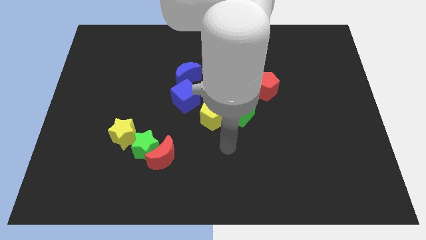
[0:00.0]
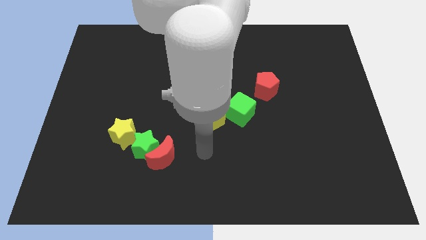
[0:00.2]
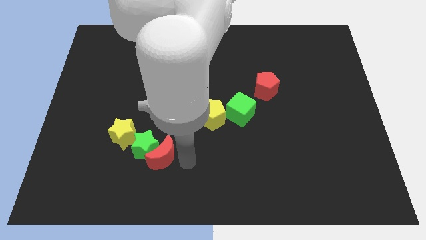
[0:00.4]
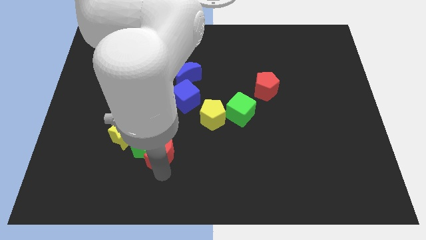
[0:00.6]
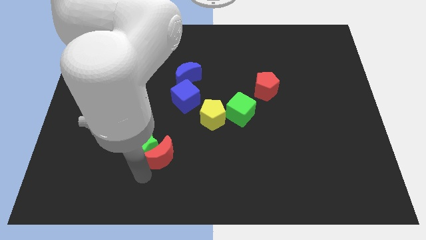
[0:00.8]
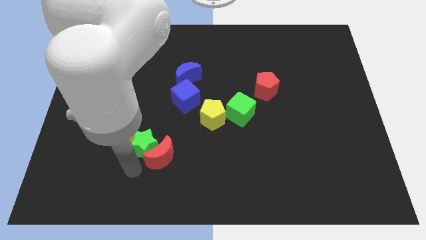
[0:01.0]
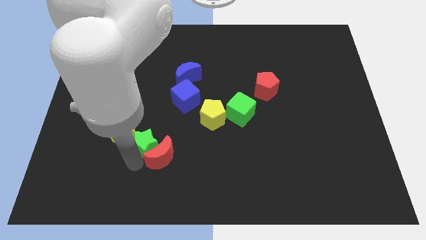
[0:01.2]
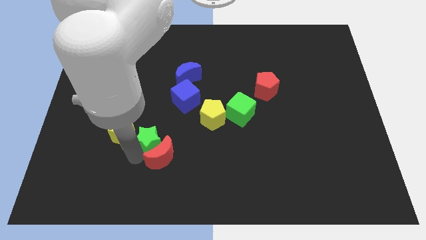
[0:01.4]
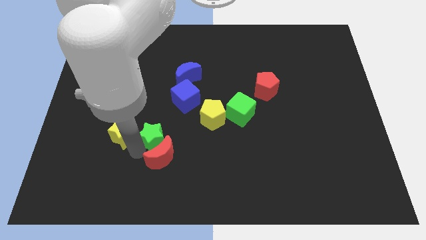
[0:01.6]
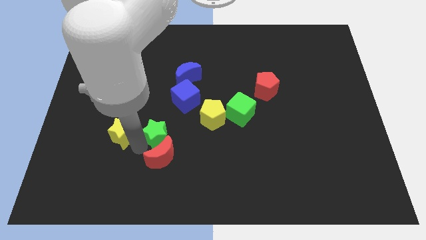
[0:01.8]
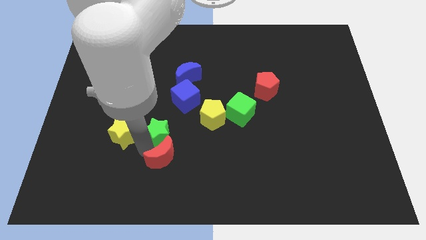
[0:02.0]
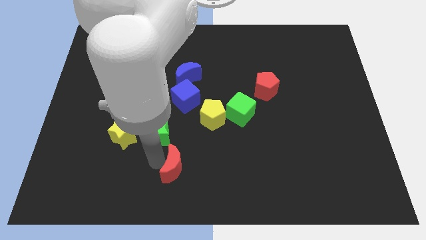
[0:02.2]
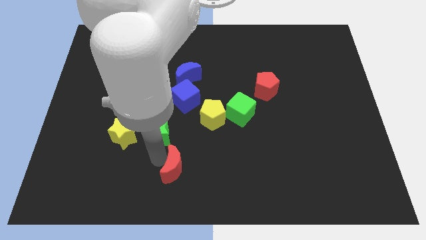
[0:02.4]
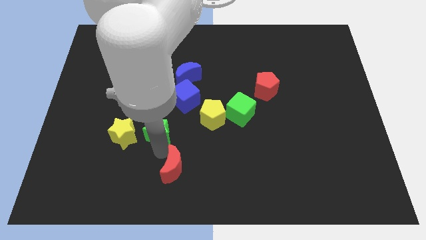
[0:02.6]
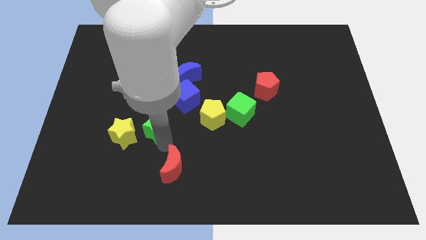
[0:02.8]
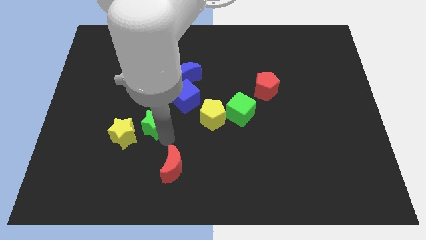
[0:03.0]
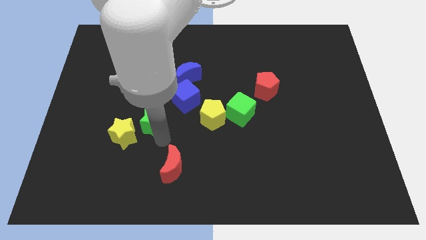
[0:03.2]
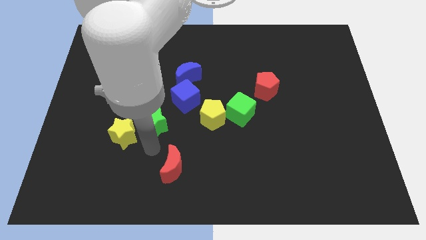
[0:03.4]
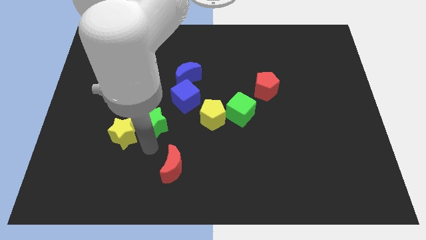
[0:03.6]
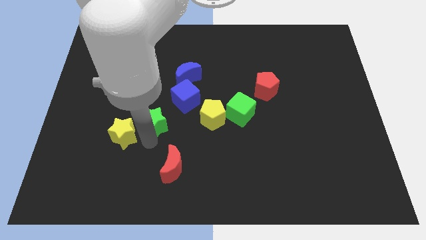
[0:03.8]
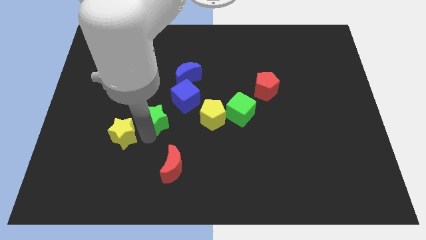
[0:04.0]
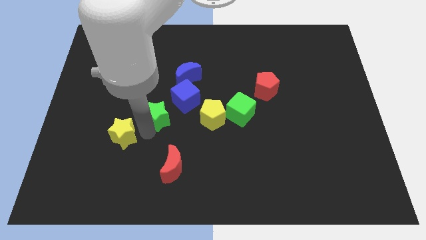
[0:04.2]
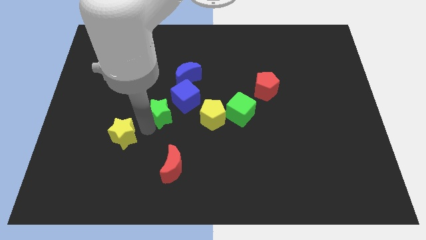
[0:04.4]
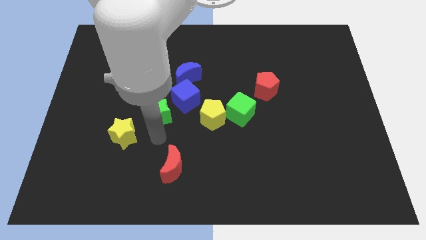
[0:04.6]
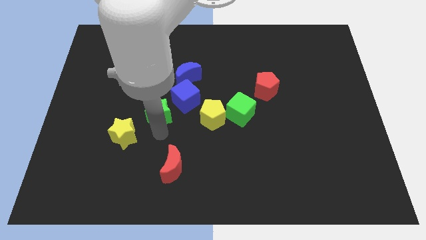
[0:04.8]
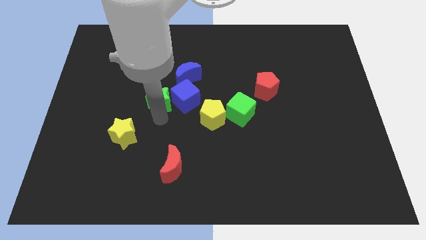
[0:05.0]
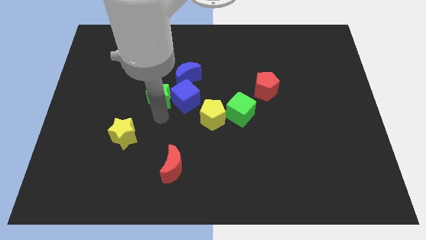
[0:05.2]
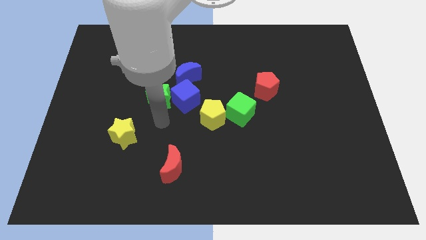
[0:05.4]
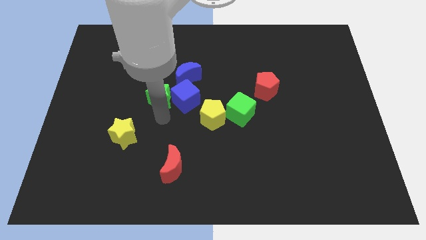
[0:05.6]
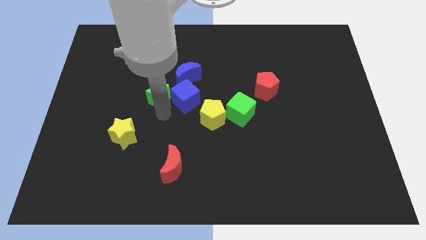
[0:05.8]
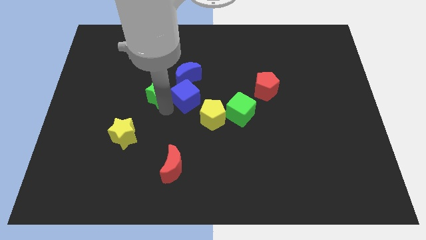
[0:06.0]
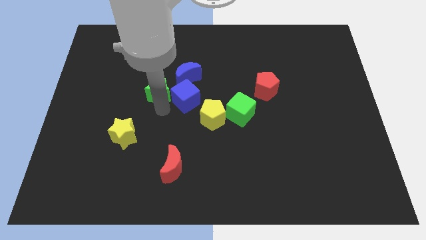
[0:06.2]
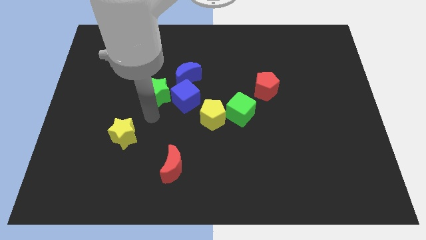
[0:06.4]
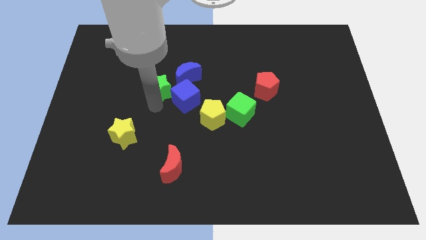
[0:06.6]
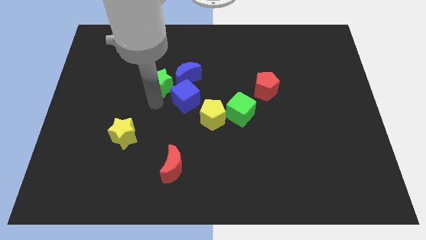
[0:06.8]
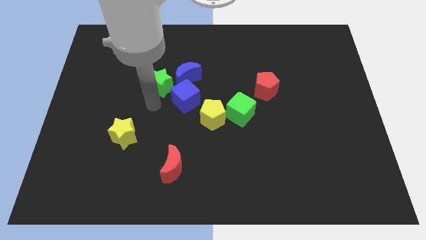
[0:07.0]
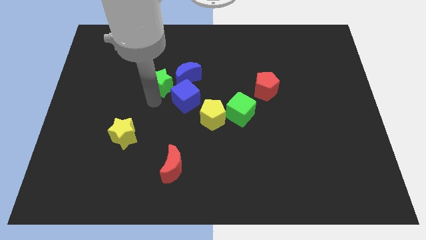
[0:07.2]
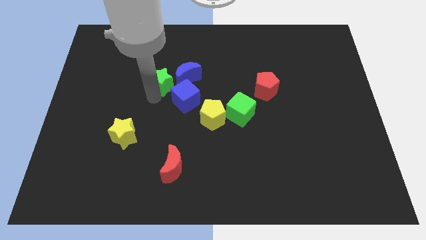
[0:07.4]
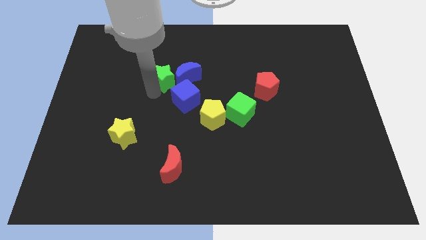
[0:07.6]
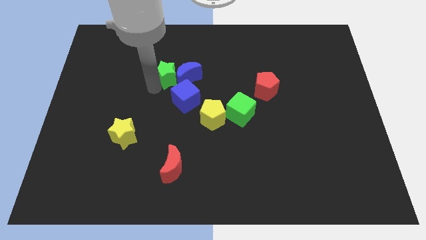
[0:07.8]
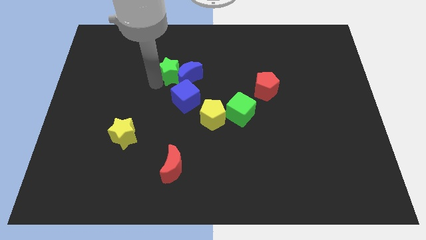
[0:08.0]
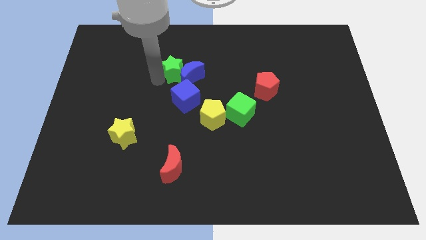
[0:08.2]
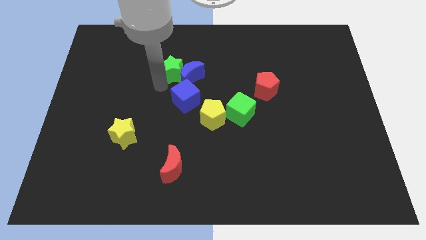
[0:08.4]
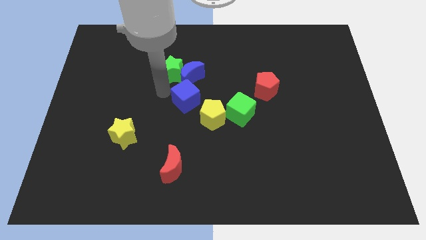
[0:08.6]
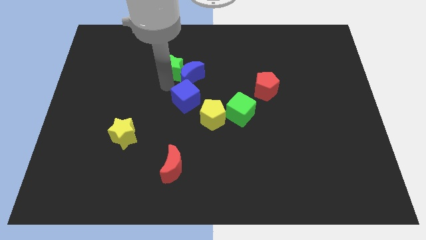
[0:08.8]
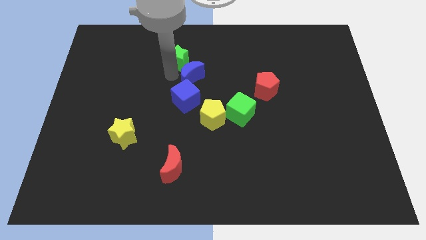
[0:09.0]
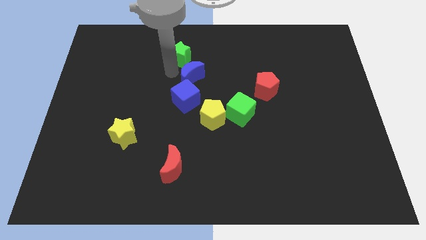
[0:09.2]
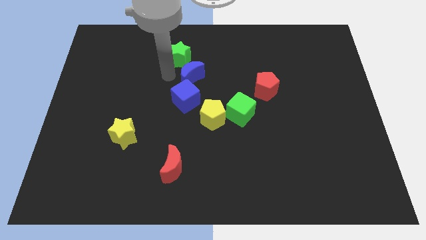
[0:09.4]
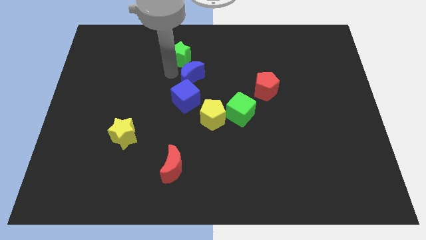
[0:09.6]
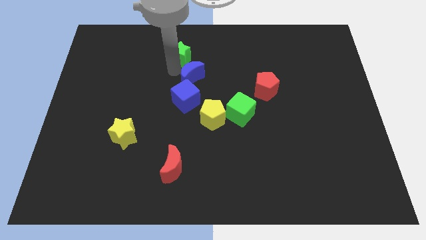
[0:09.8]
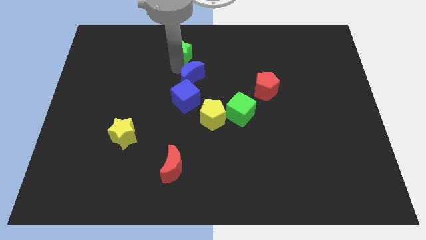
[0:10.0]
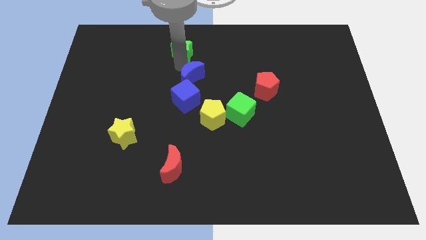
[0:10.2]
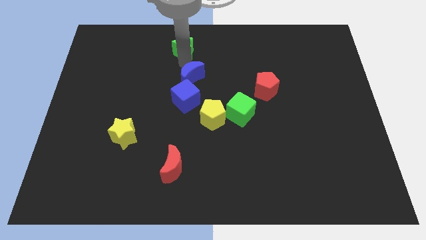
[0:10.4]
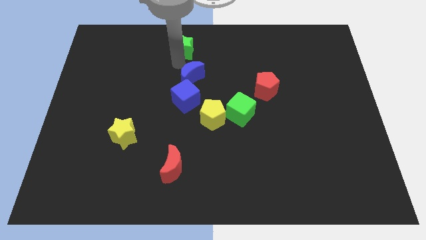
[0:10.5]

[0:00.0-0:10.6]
slide the green star to the top

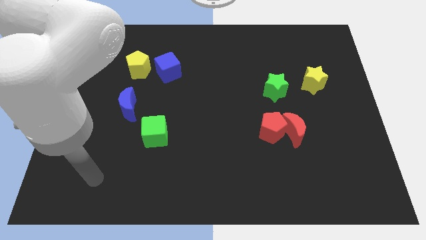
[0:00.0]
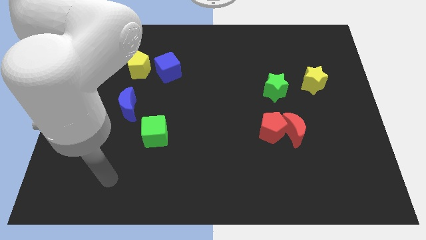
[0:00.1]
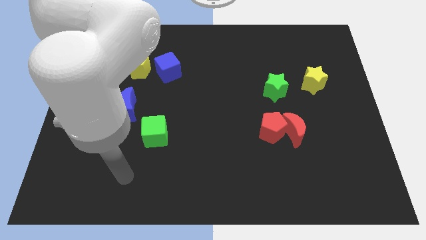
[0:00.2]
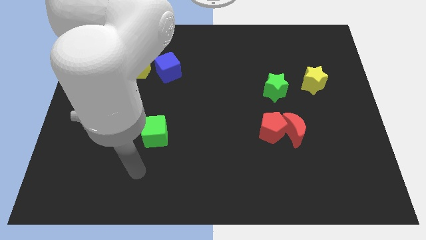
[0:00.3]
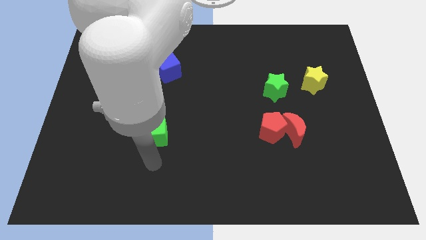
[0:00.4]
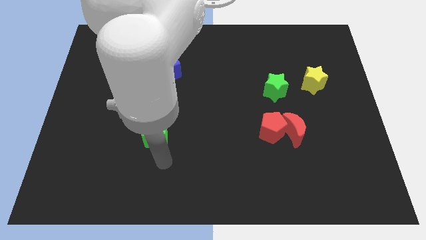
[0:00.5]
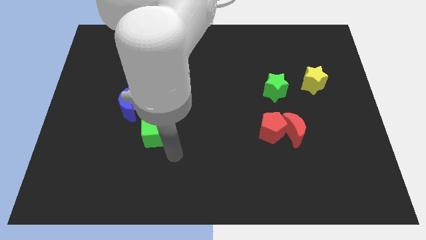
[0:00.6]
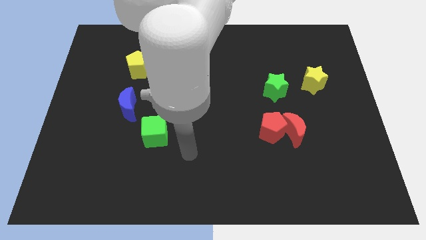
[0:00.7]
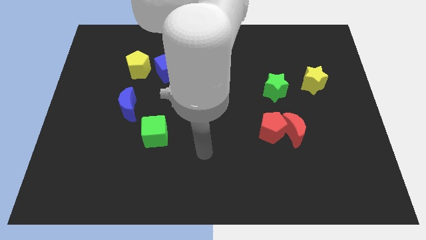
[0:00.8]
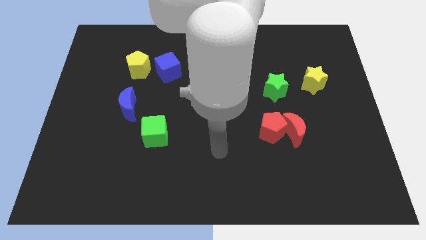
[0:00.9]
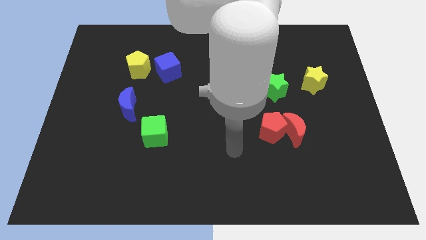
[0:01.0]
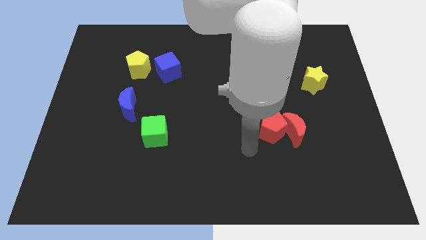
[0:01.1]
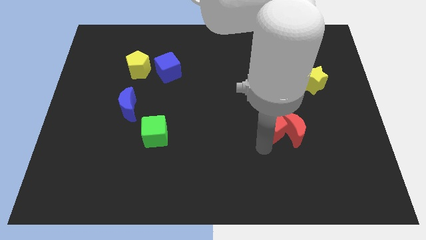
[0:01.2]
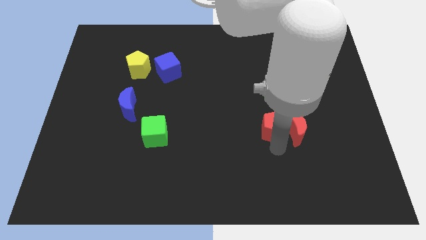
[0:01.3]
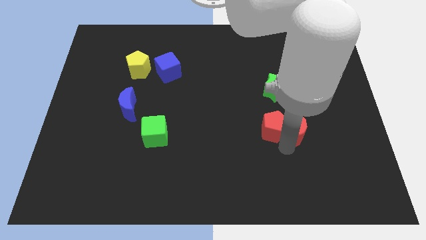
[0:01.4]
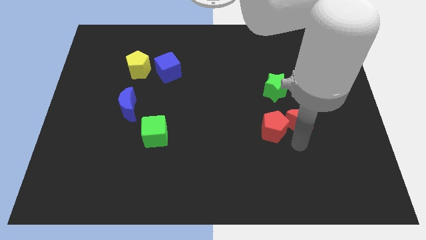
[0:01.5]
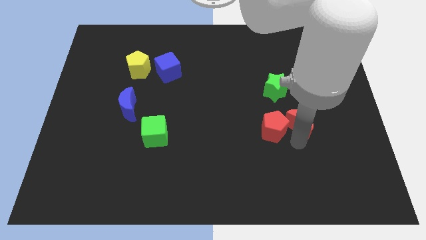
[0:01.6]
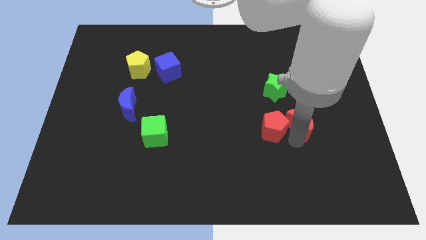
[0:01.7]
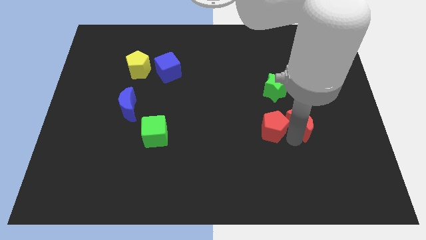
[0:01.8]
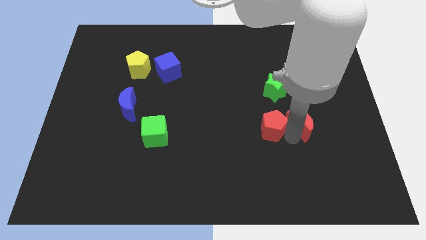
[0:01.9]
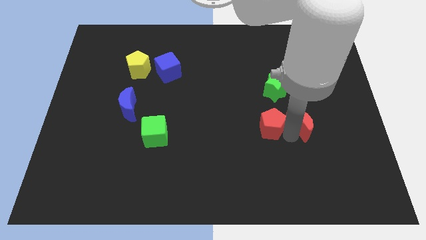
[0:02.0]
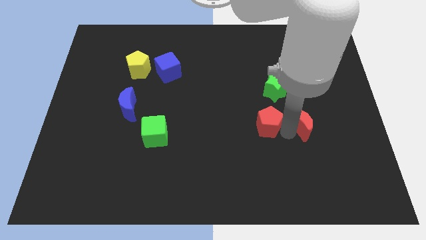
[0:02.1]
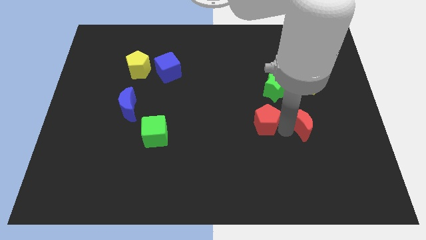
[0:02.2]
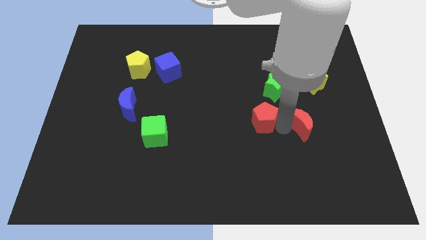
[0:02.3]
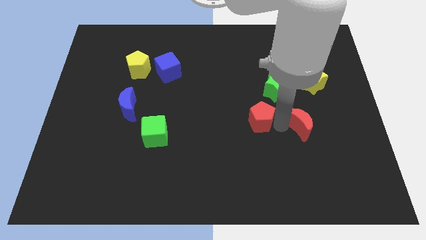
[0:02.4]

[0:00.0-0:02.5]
slide the red pentagon to the middle
